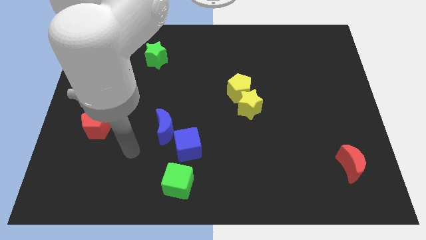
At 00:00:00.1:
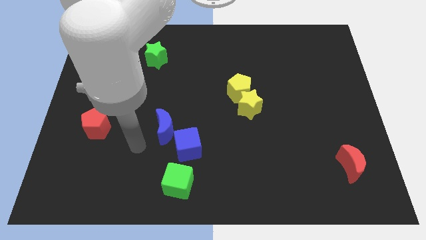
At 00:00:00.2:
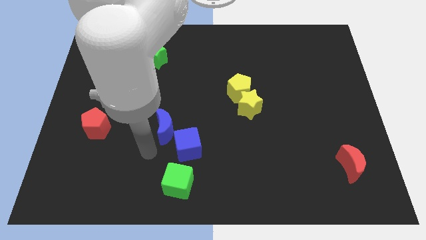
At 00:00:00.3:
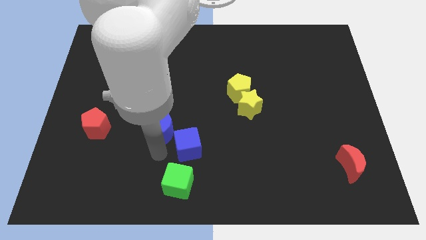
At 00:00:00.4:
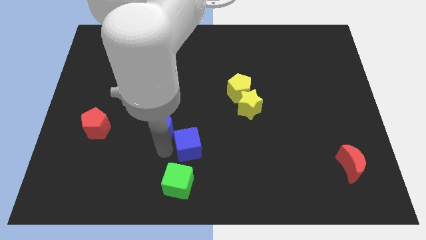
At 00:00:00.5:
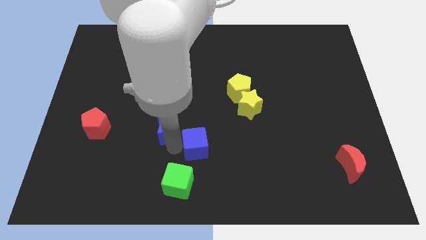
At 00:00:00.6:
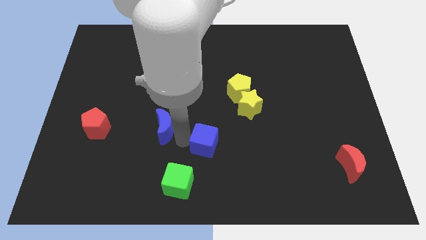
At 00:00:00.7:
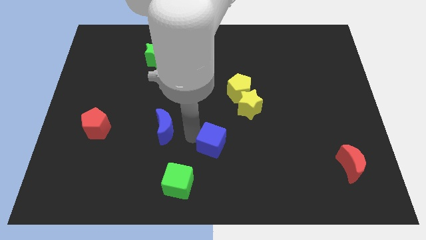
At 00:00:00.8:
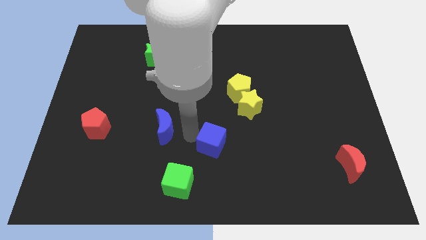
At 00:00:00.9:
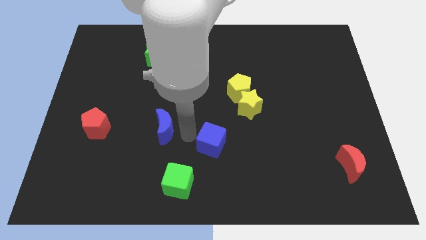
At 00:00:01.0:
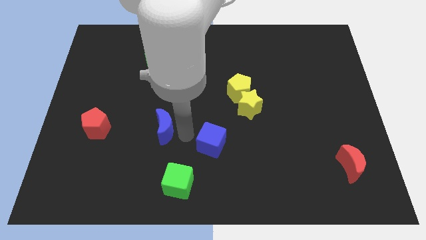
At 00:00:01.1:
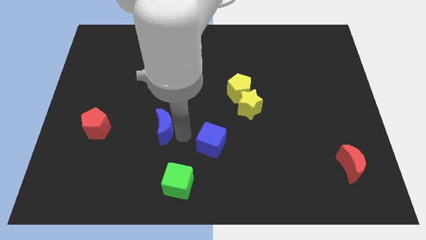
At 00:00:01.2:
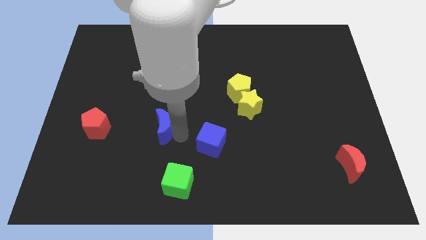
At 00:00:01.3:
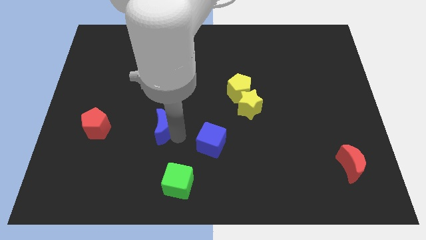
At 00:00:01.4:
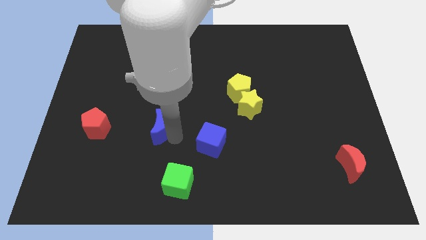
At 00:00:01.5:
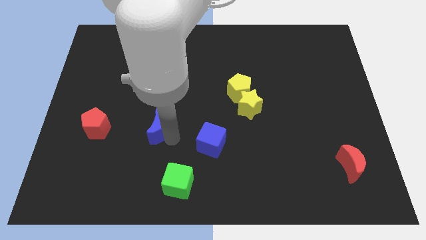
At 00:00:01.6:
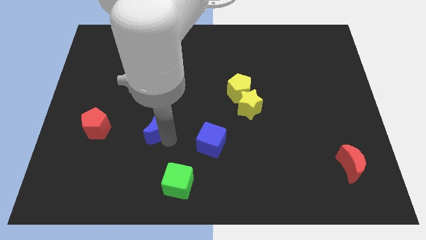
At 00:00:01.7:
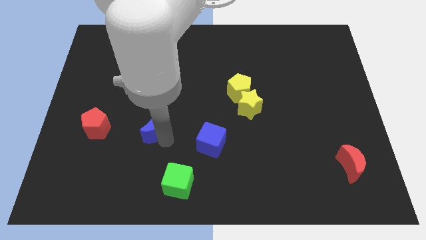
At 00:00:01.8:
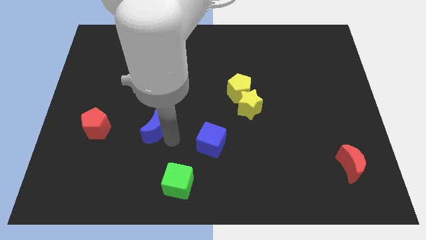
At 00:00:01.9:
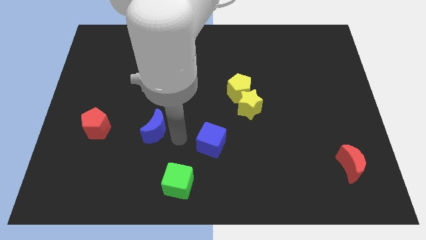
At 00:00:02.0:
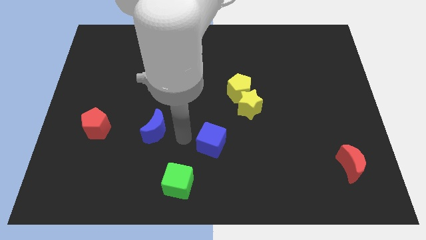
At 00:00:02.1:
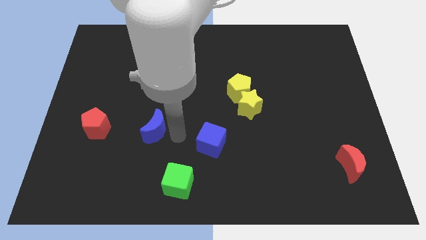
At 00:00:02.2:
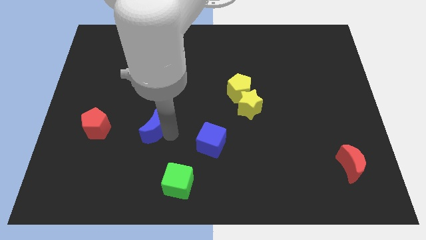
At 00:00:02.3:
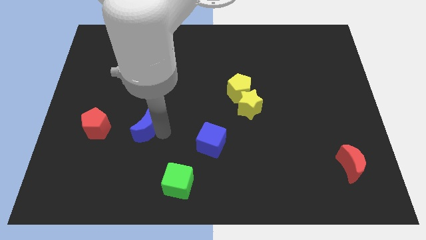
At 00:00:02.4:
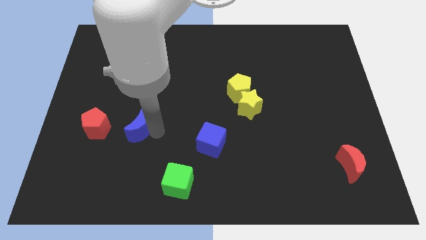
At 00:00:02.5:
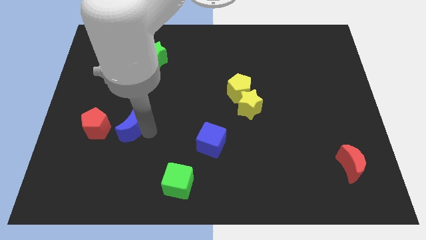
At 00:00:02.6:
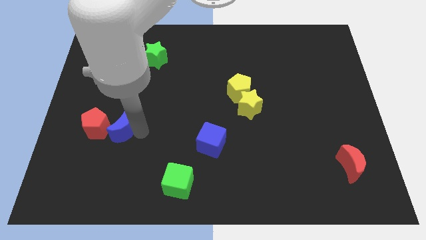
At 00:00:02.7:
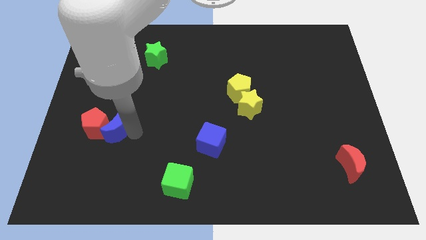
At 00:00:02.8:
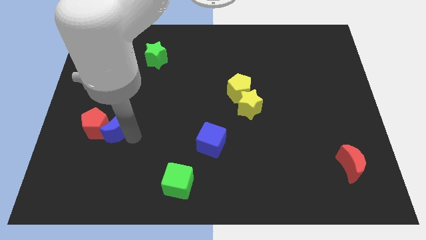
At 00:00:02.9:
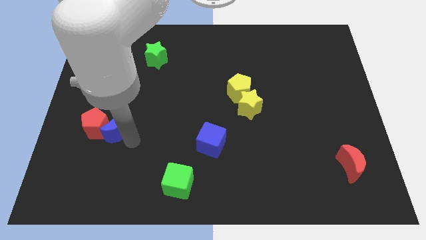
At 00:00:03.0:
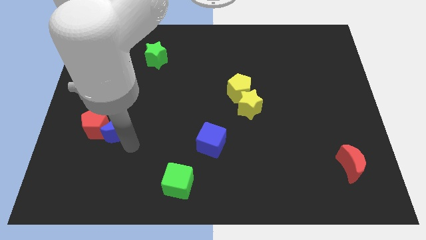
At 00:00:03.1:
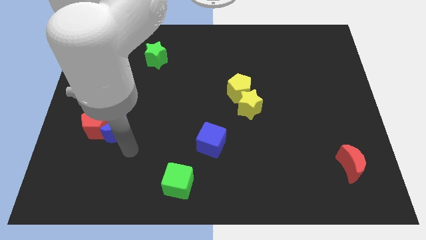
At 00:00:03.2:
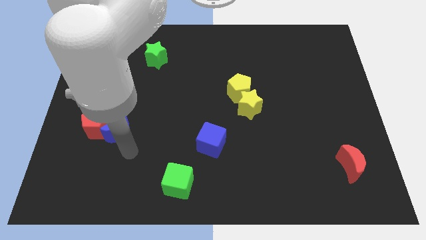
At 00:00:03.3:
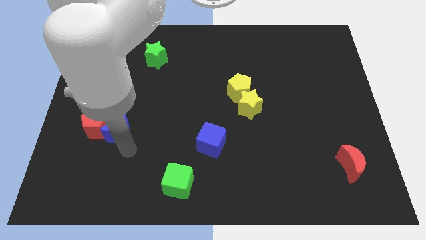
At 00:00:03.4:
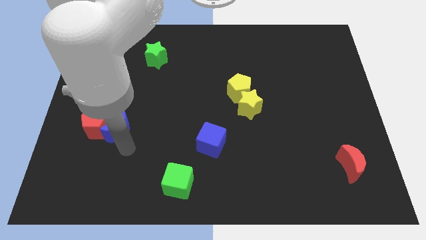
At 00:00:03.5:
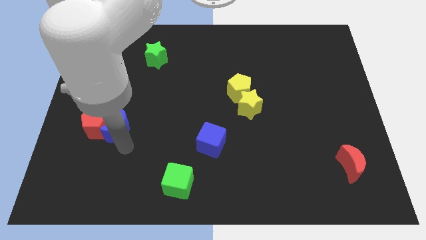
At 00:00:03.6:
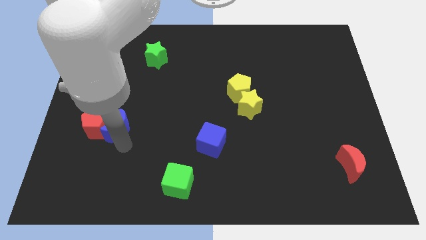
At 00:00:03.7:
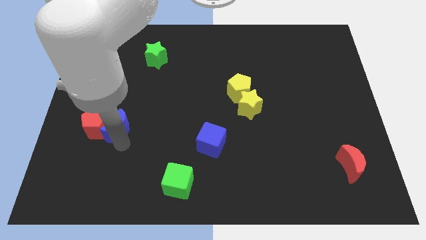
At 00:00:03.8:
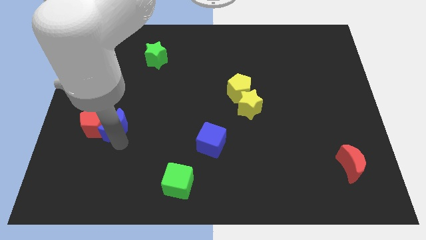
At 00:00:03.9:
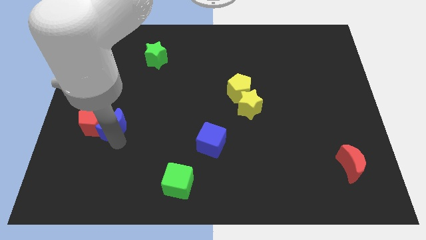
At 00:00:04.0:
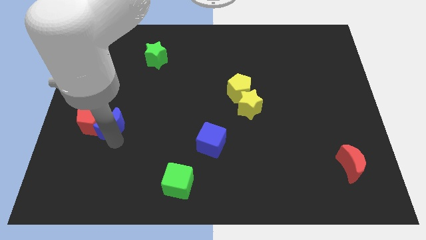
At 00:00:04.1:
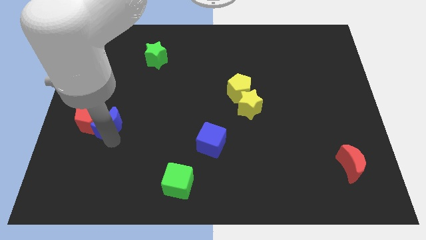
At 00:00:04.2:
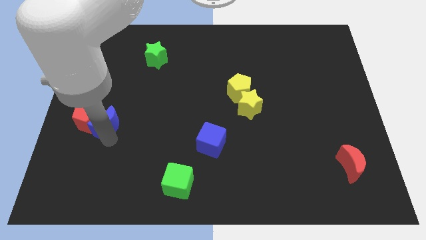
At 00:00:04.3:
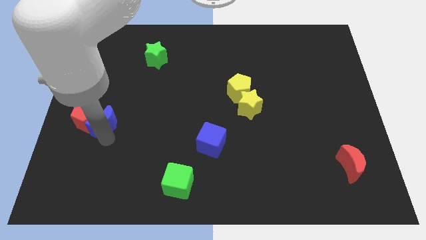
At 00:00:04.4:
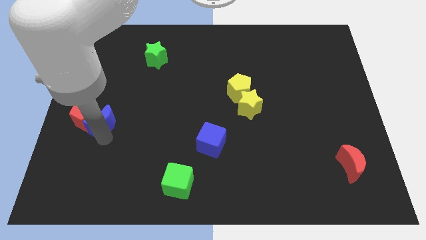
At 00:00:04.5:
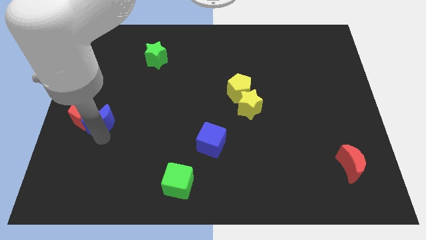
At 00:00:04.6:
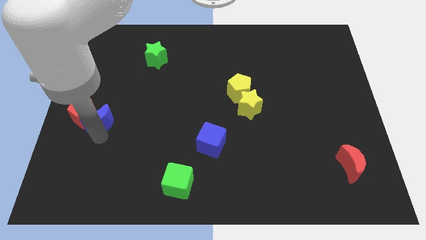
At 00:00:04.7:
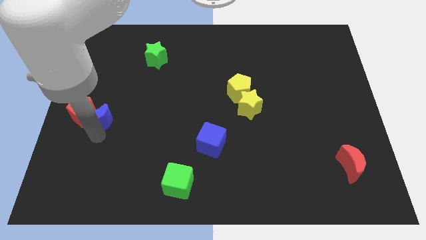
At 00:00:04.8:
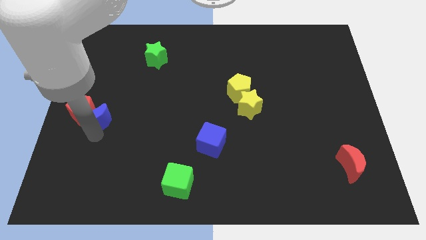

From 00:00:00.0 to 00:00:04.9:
push the blue moon to the left side of the board

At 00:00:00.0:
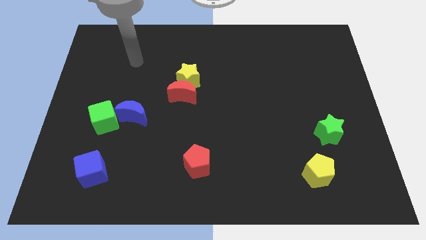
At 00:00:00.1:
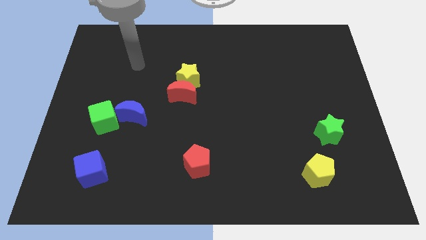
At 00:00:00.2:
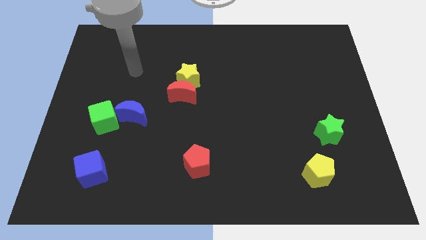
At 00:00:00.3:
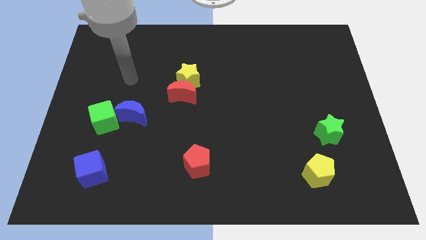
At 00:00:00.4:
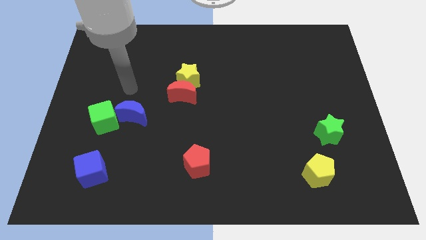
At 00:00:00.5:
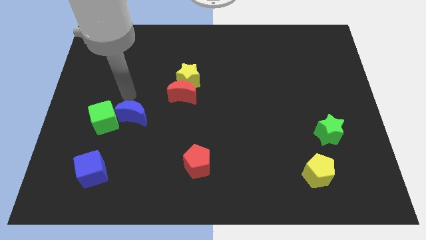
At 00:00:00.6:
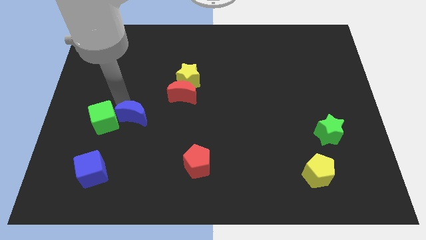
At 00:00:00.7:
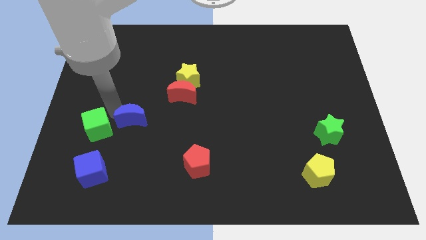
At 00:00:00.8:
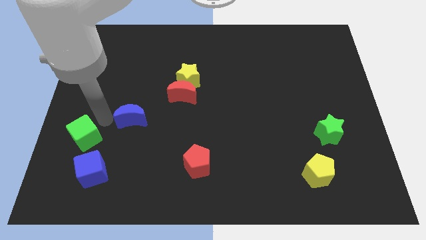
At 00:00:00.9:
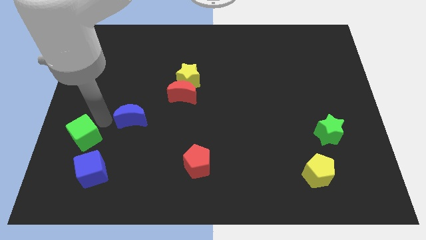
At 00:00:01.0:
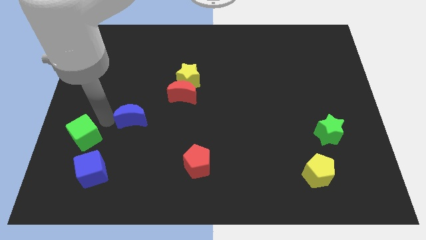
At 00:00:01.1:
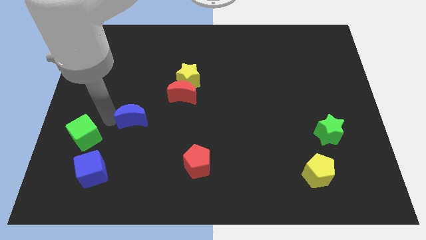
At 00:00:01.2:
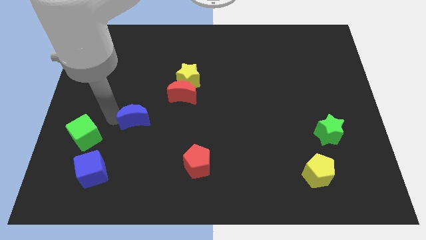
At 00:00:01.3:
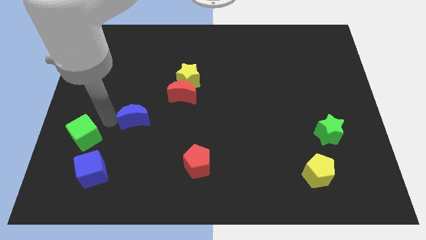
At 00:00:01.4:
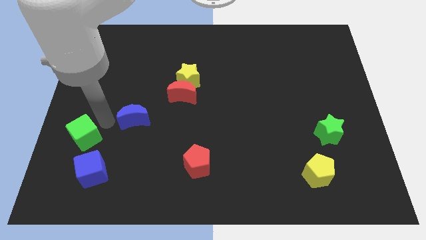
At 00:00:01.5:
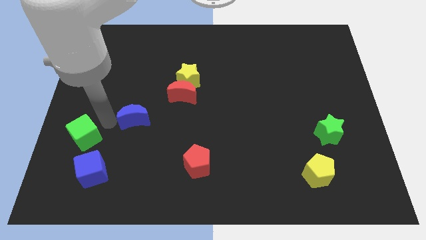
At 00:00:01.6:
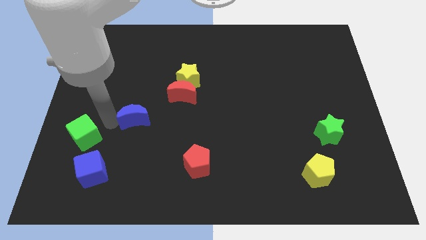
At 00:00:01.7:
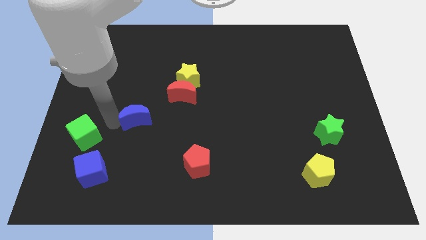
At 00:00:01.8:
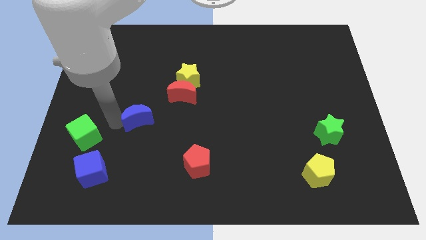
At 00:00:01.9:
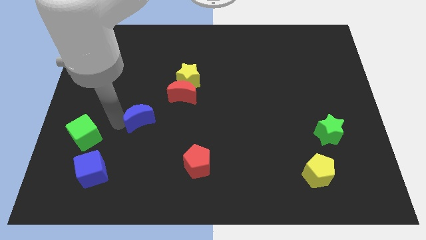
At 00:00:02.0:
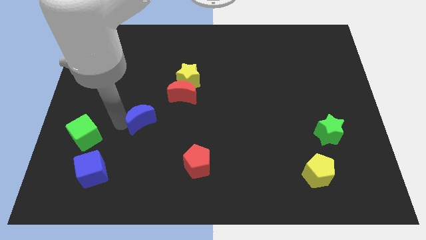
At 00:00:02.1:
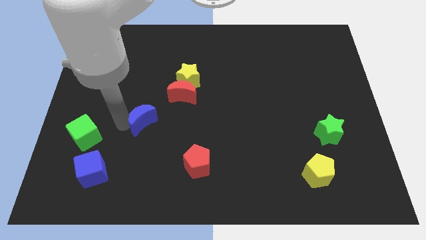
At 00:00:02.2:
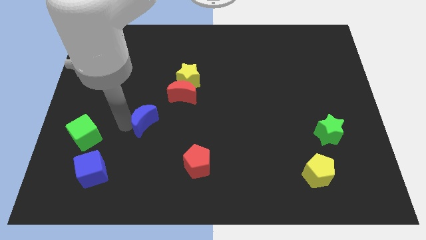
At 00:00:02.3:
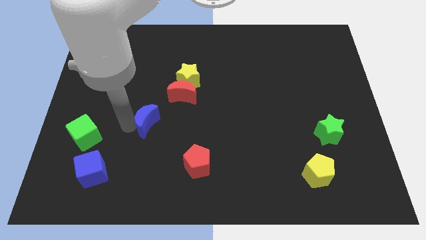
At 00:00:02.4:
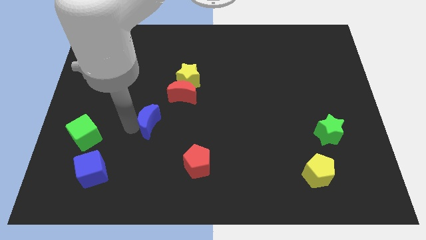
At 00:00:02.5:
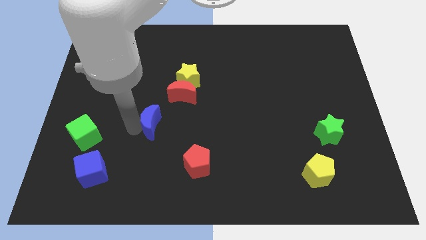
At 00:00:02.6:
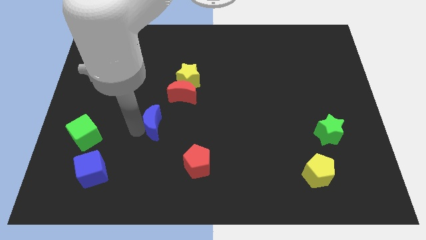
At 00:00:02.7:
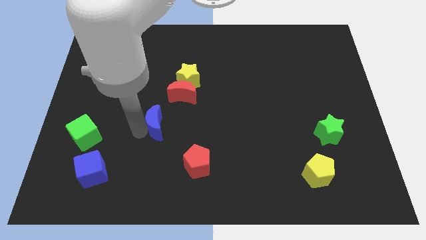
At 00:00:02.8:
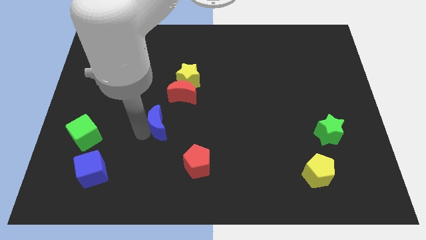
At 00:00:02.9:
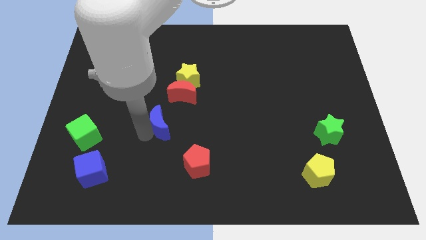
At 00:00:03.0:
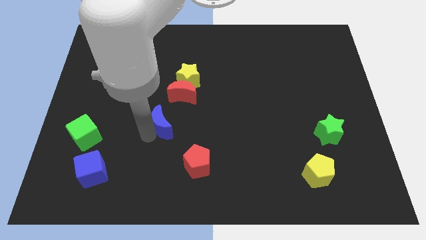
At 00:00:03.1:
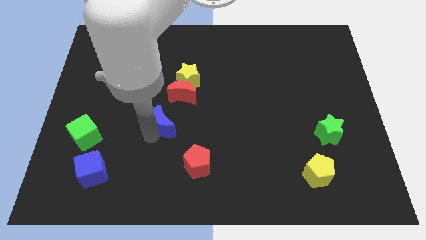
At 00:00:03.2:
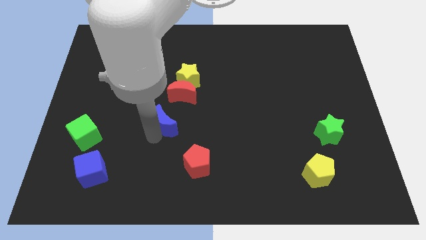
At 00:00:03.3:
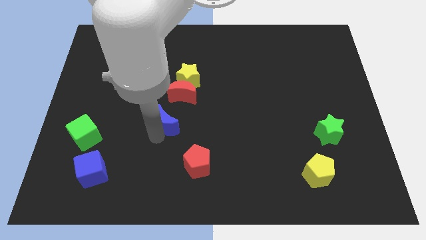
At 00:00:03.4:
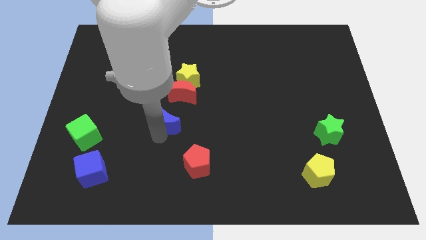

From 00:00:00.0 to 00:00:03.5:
put the blue moon to the middle of the board
